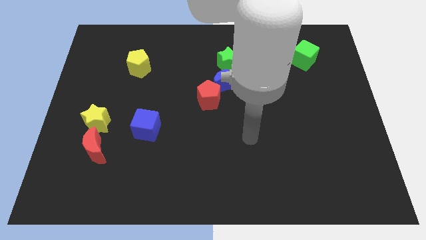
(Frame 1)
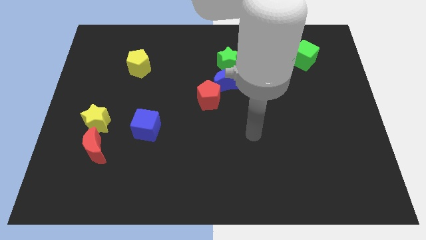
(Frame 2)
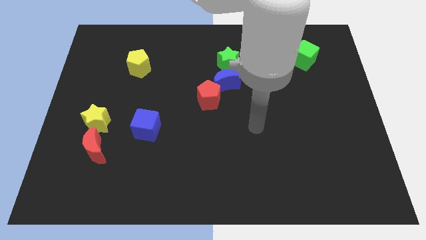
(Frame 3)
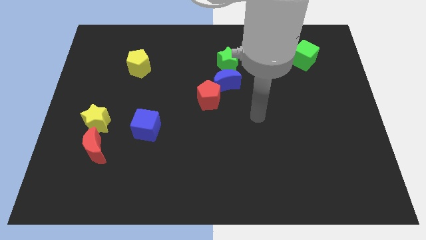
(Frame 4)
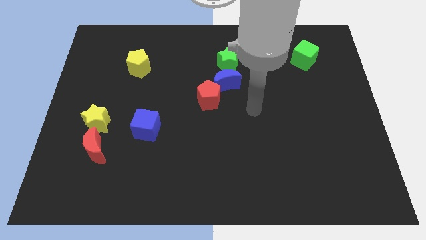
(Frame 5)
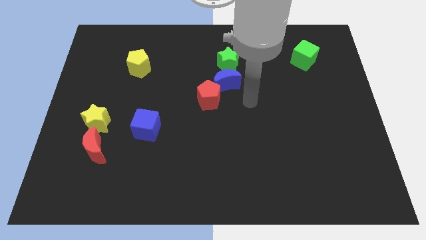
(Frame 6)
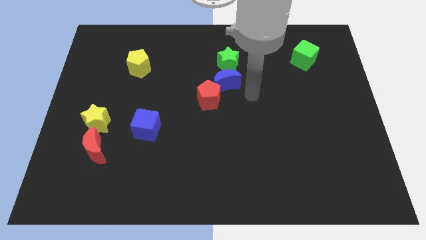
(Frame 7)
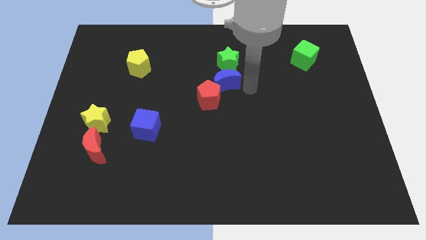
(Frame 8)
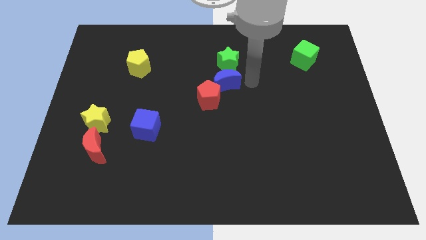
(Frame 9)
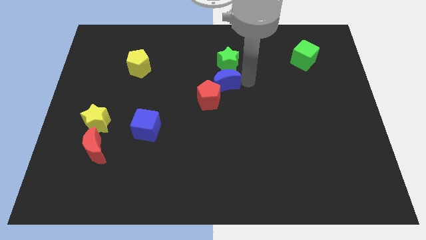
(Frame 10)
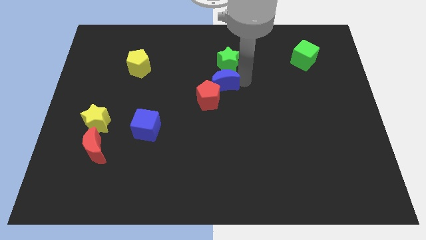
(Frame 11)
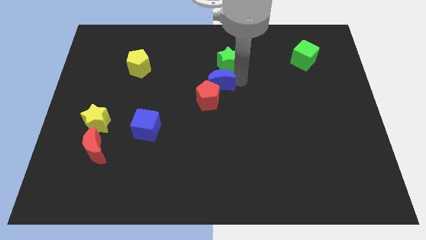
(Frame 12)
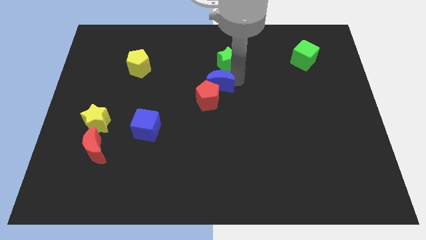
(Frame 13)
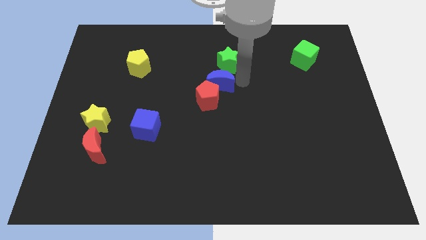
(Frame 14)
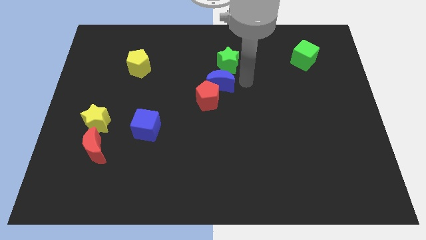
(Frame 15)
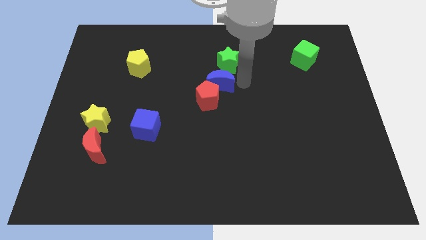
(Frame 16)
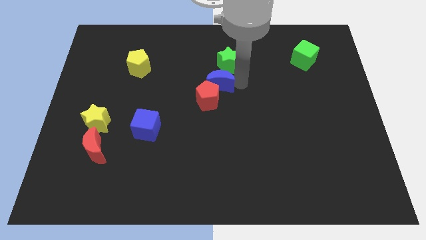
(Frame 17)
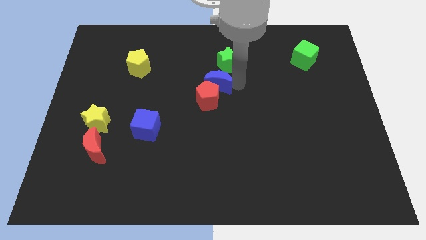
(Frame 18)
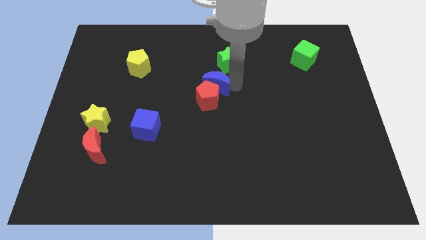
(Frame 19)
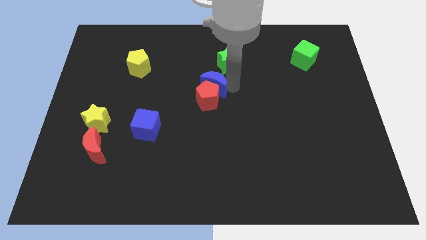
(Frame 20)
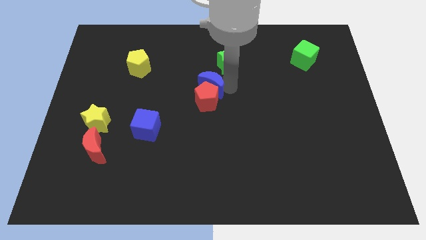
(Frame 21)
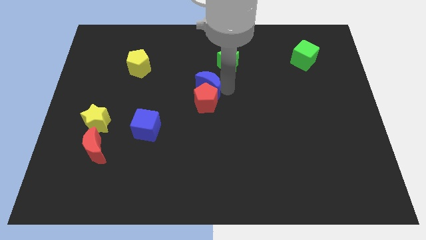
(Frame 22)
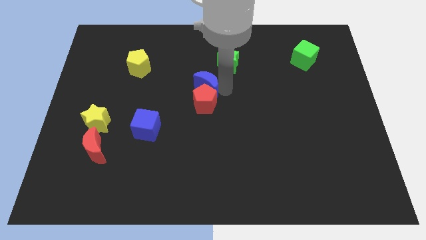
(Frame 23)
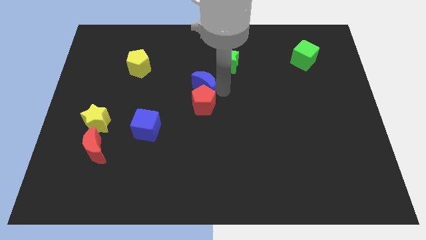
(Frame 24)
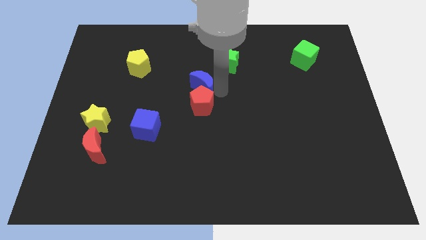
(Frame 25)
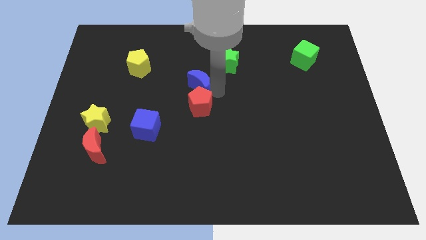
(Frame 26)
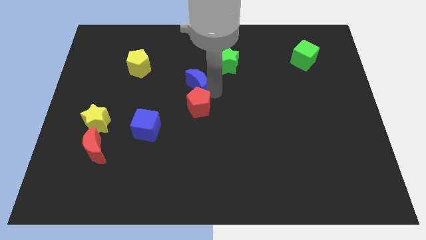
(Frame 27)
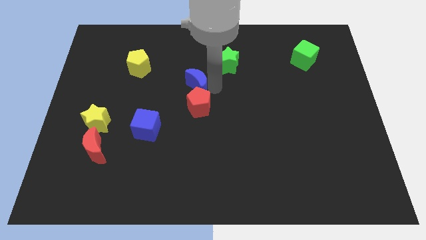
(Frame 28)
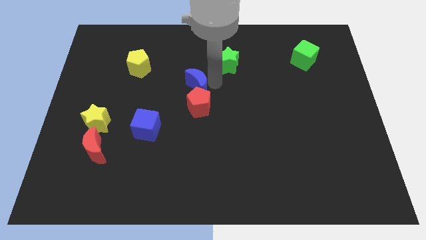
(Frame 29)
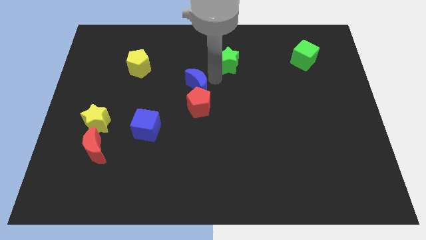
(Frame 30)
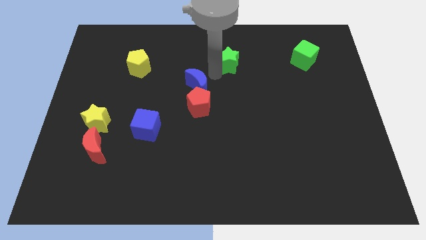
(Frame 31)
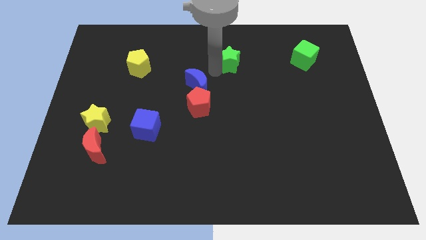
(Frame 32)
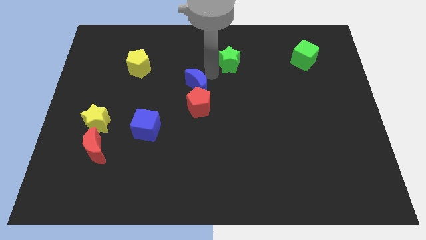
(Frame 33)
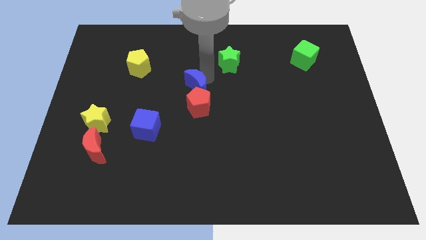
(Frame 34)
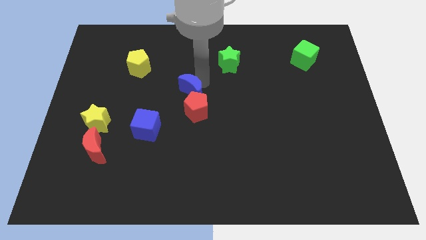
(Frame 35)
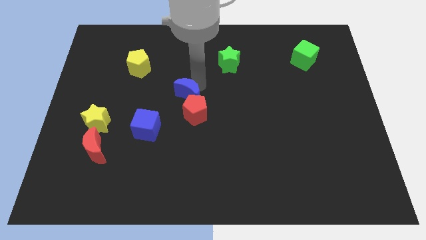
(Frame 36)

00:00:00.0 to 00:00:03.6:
move the blue moon diagonally downwards and to the left somewhat

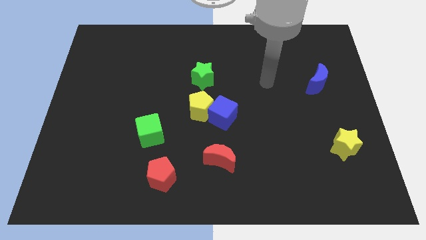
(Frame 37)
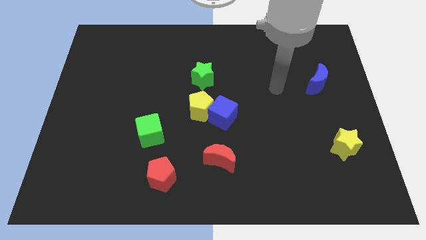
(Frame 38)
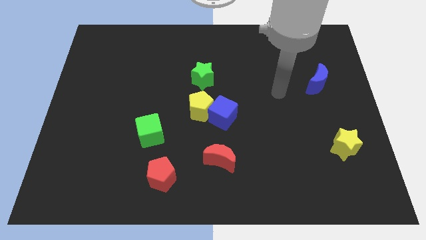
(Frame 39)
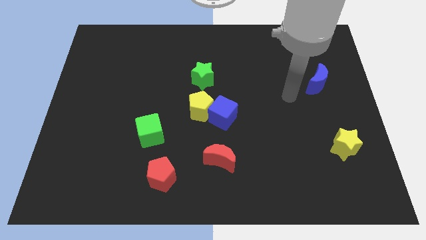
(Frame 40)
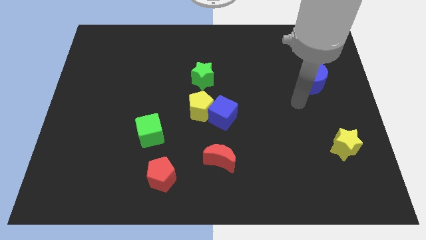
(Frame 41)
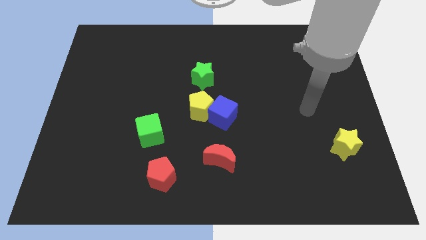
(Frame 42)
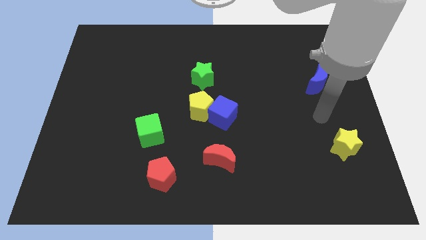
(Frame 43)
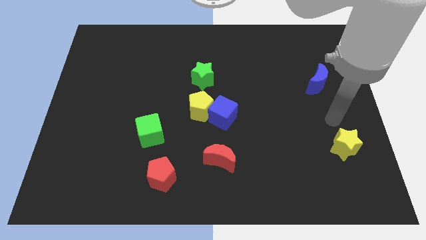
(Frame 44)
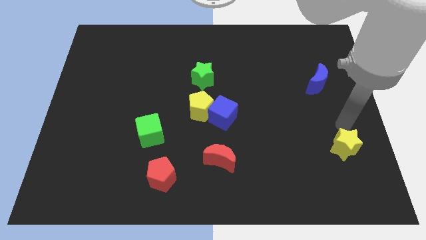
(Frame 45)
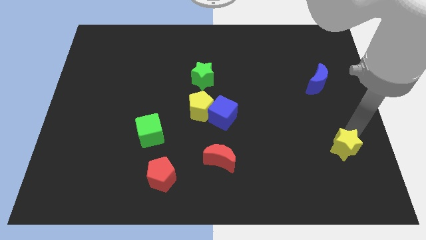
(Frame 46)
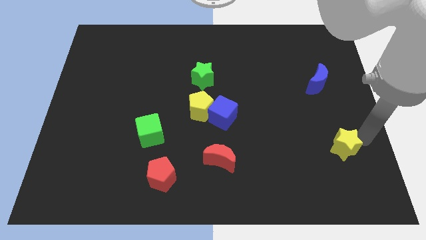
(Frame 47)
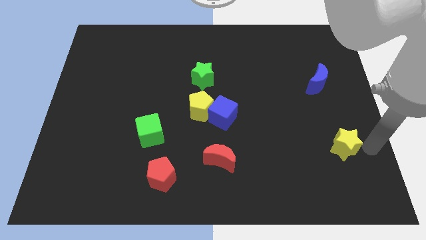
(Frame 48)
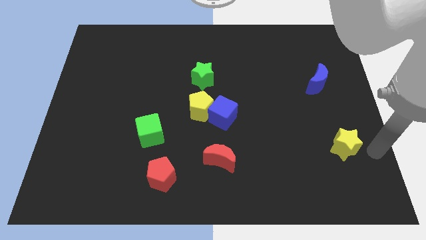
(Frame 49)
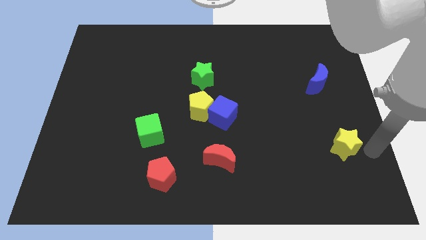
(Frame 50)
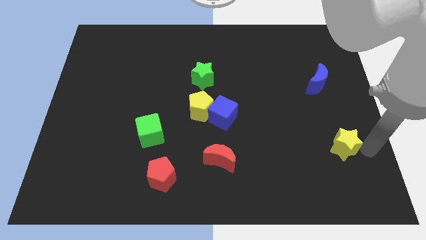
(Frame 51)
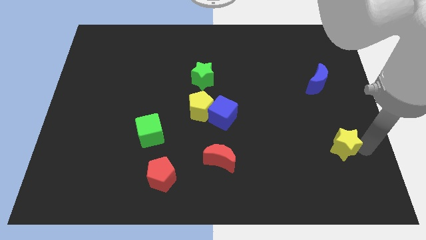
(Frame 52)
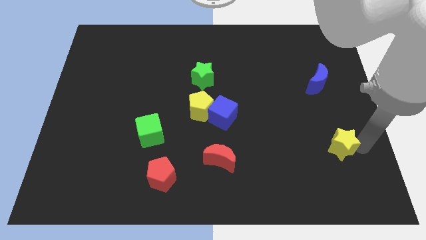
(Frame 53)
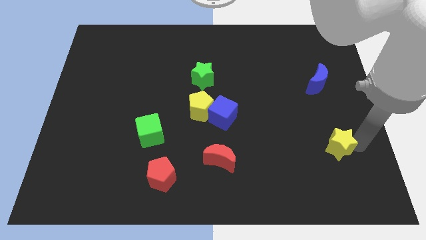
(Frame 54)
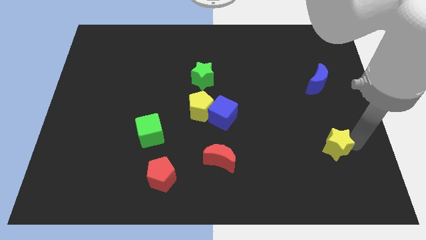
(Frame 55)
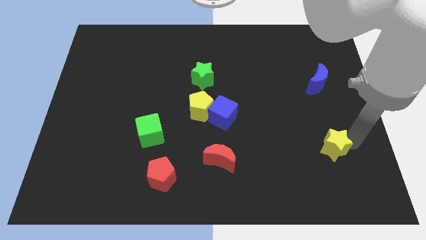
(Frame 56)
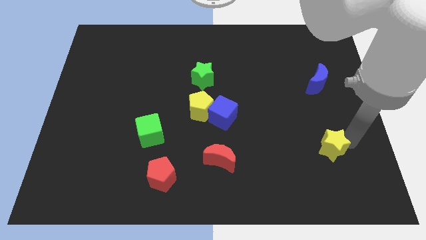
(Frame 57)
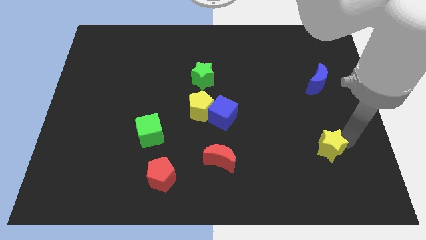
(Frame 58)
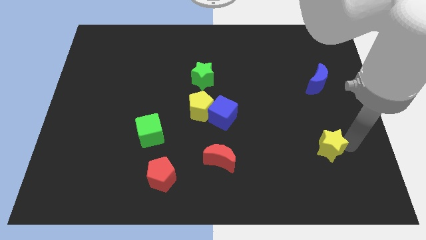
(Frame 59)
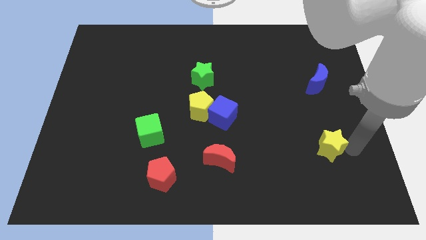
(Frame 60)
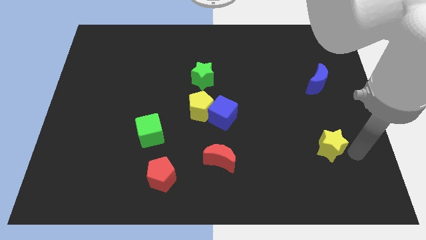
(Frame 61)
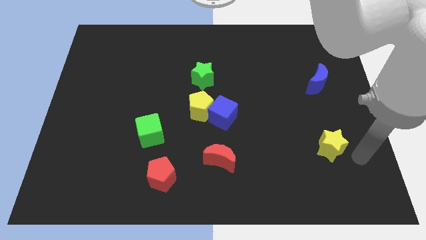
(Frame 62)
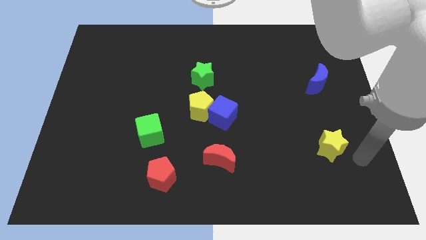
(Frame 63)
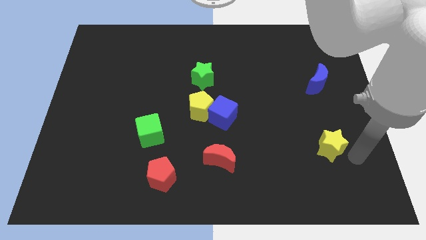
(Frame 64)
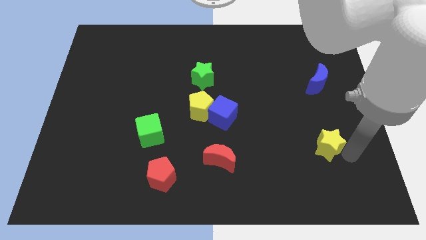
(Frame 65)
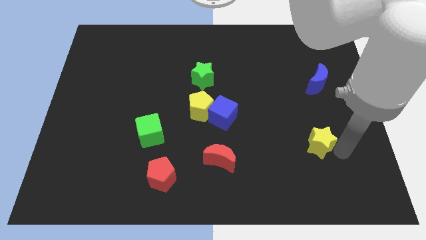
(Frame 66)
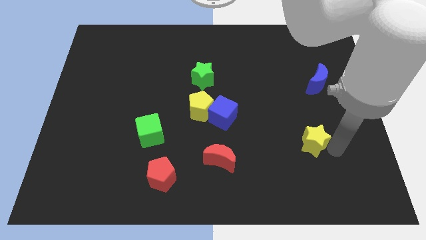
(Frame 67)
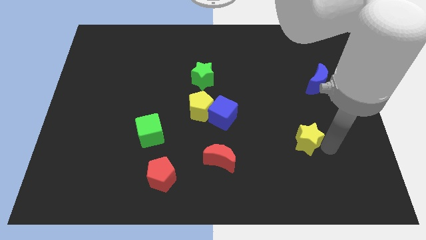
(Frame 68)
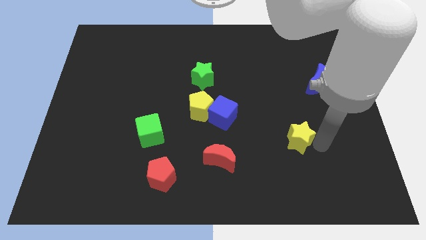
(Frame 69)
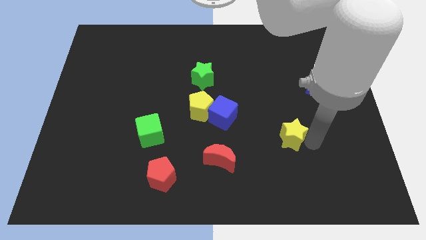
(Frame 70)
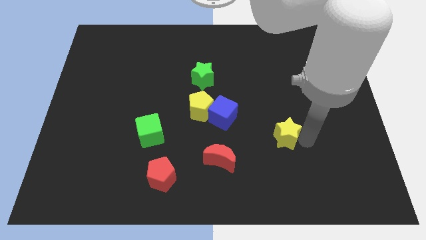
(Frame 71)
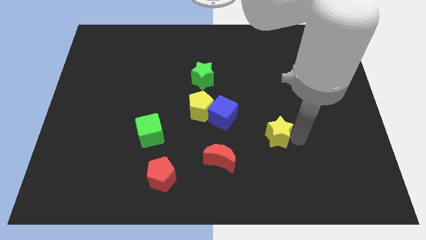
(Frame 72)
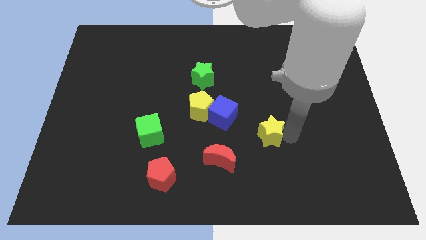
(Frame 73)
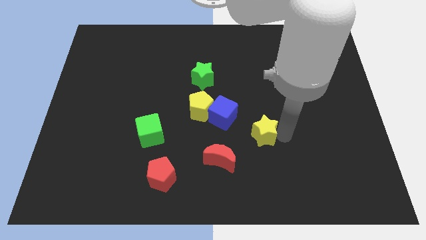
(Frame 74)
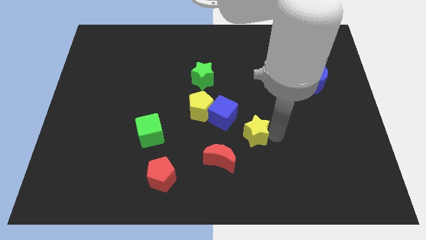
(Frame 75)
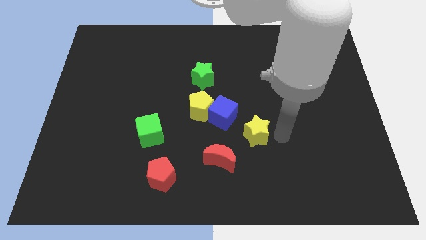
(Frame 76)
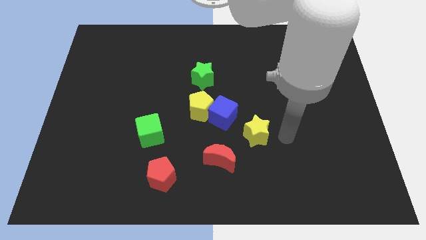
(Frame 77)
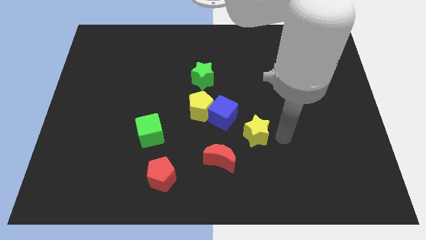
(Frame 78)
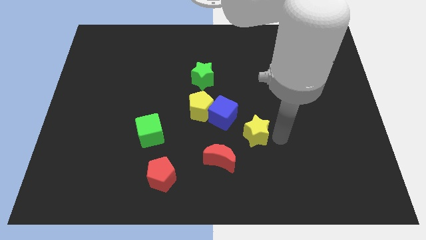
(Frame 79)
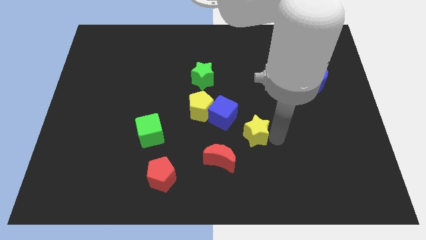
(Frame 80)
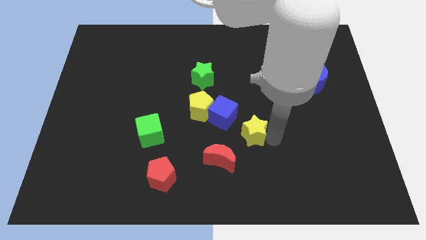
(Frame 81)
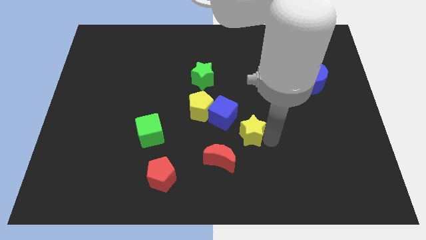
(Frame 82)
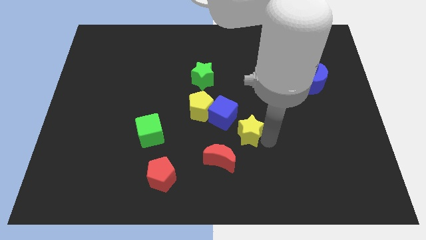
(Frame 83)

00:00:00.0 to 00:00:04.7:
slide the yellow star left
